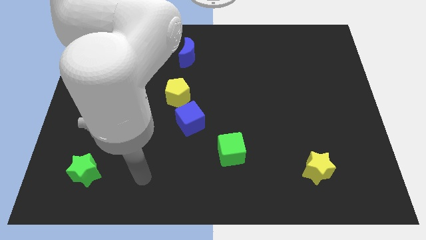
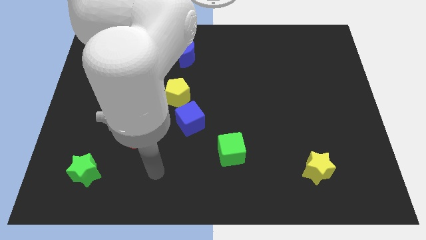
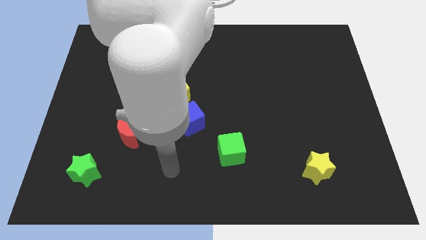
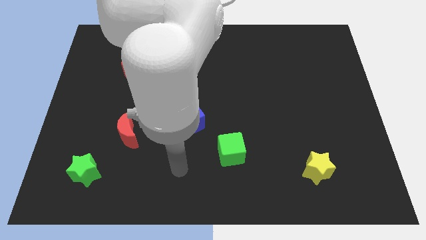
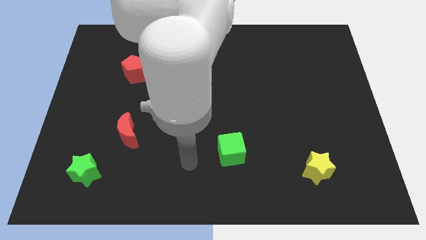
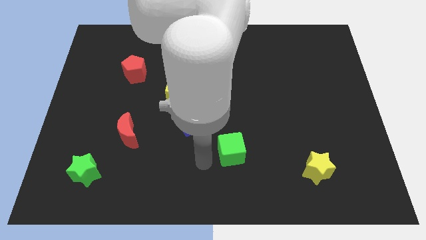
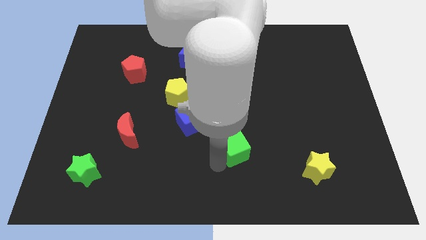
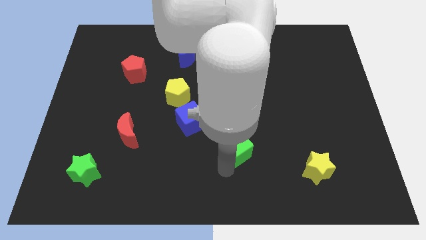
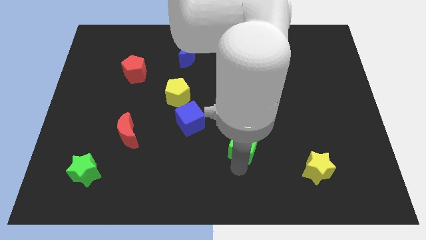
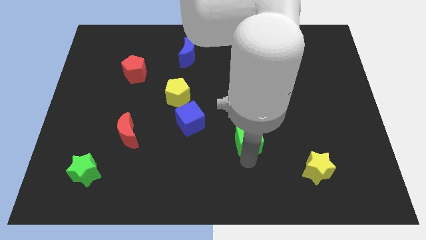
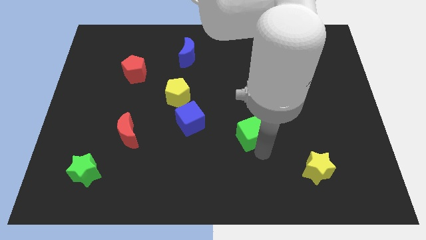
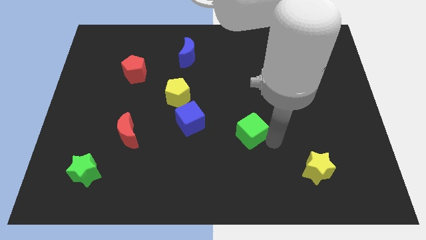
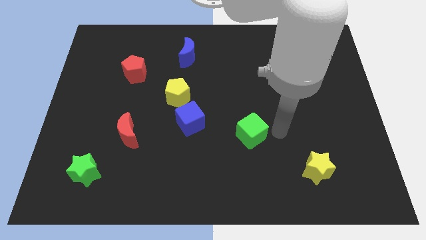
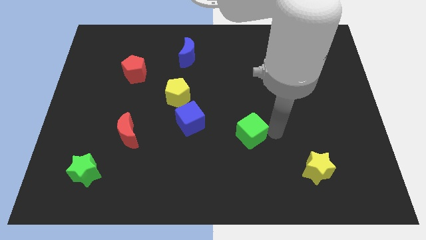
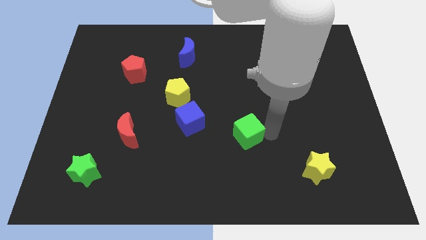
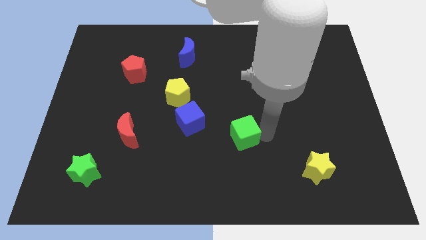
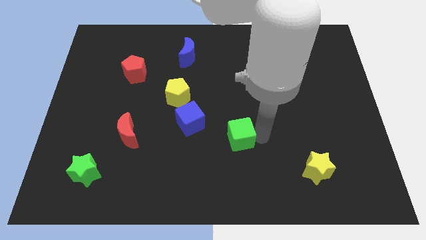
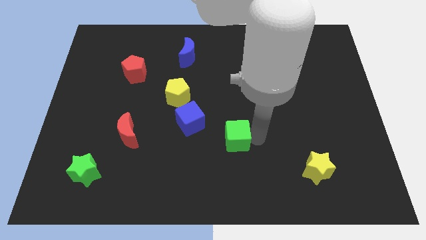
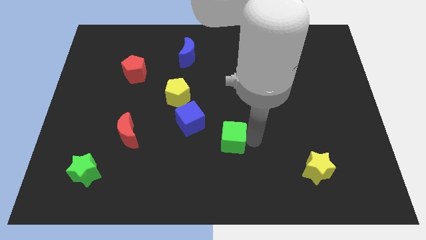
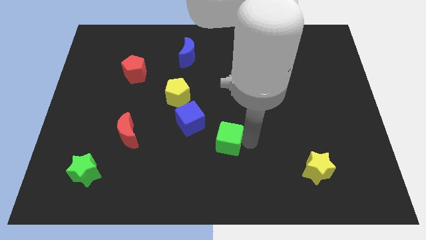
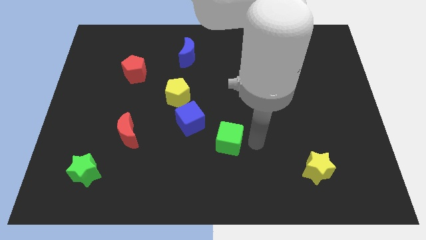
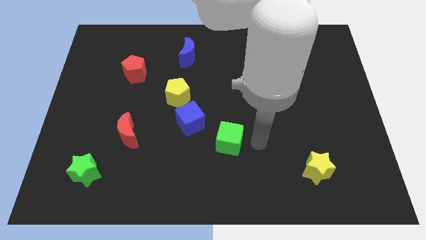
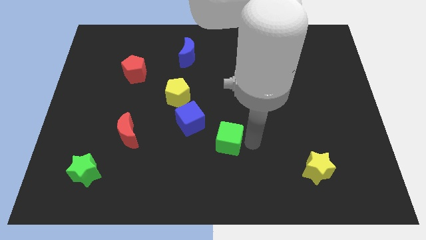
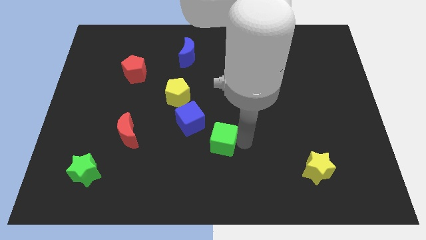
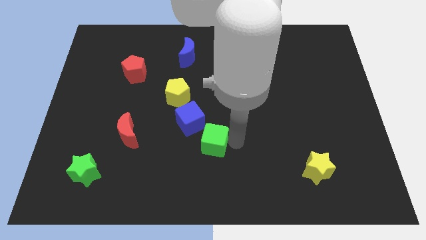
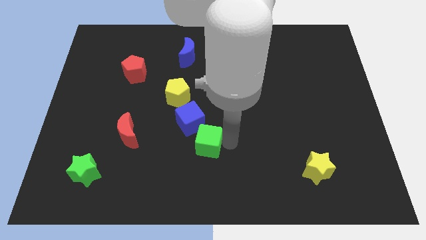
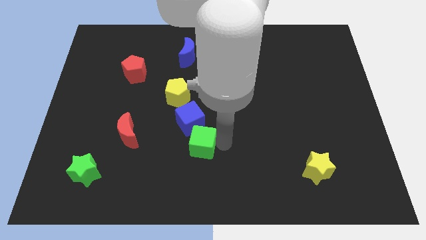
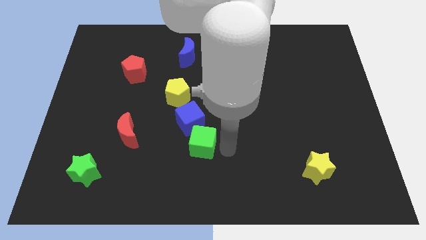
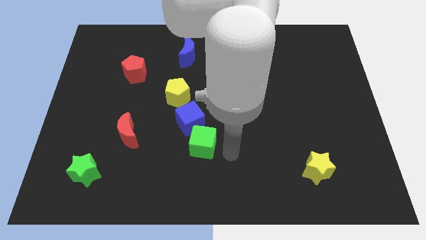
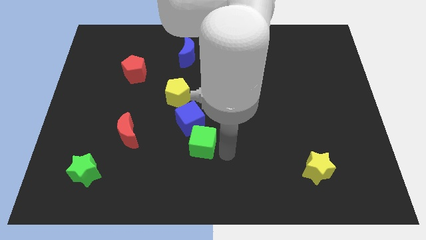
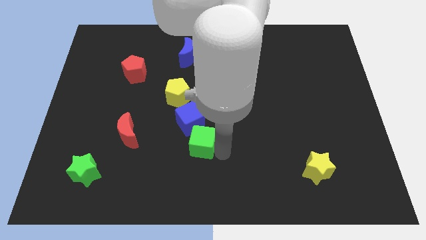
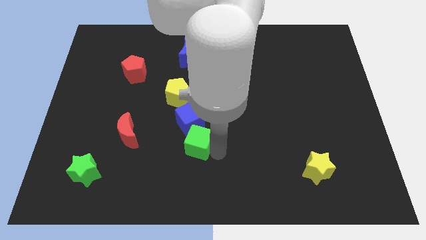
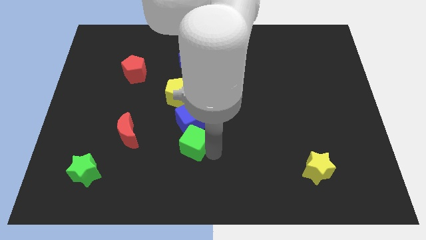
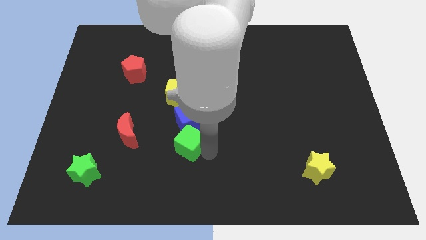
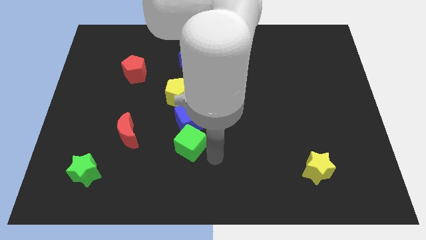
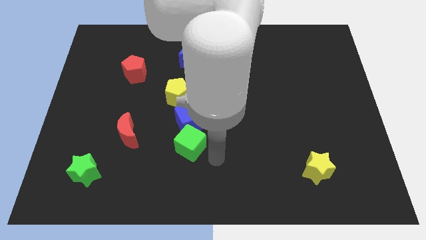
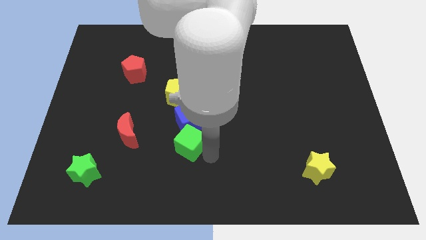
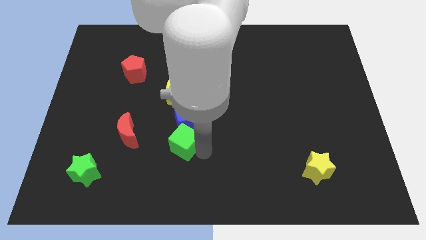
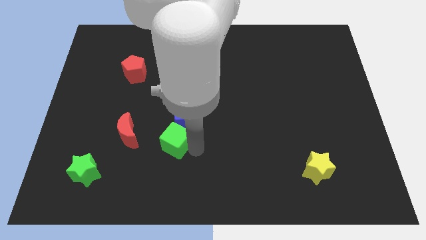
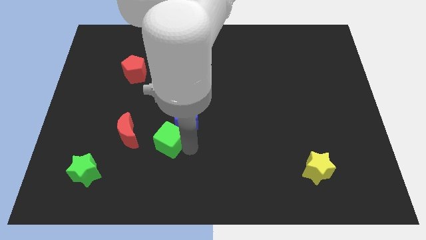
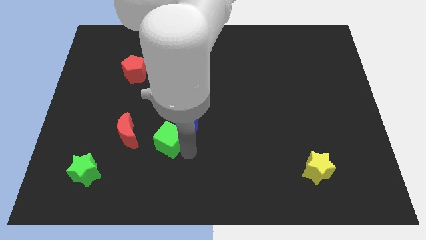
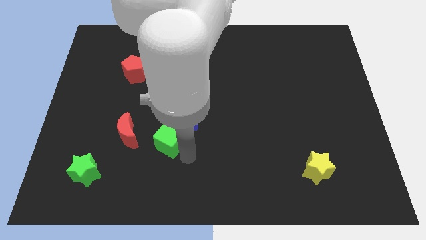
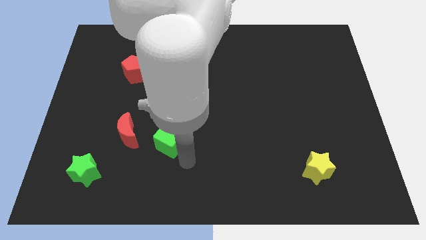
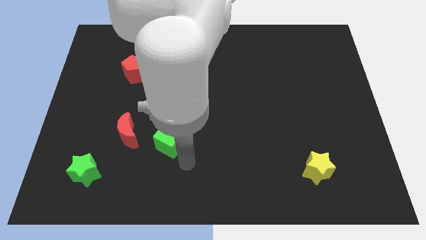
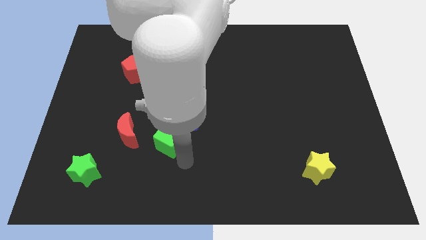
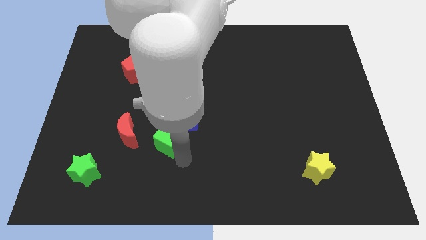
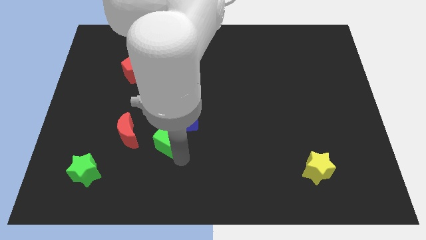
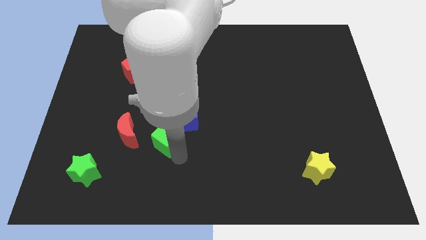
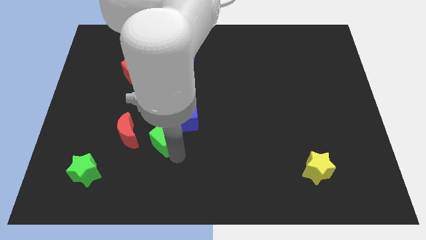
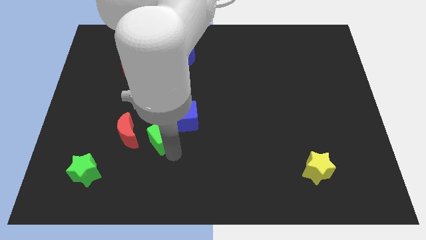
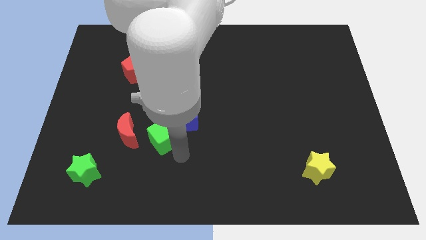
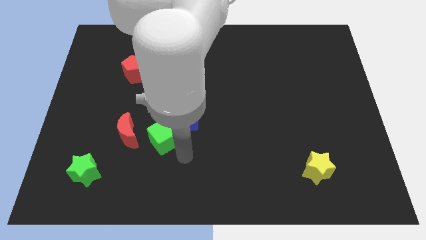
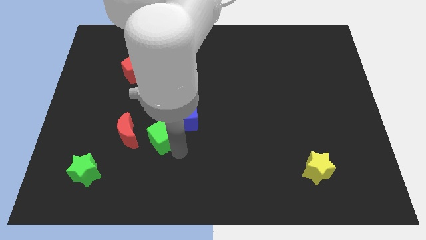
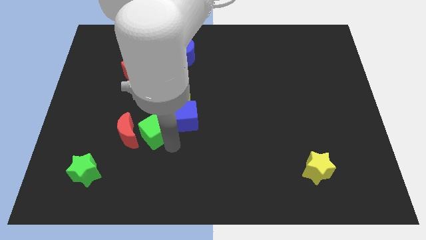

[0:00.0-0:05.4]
move the green cube to the left of the blue cube

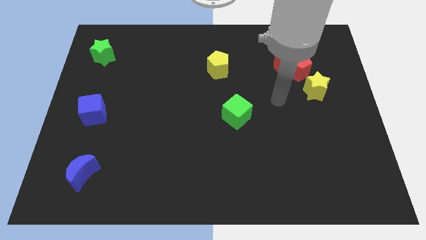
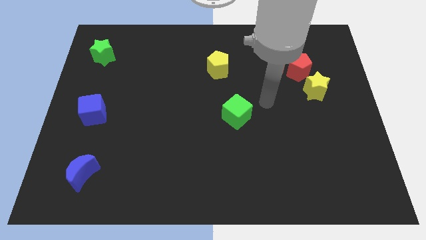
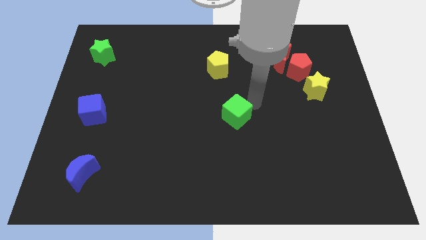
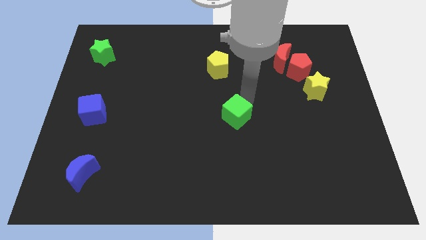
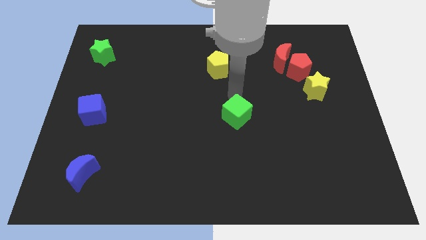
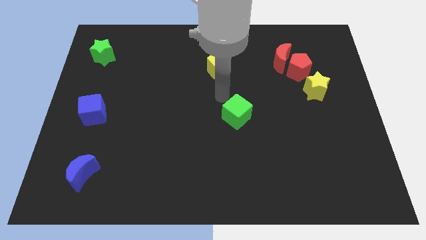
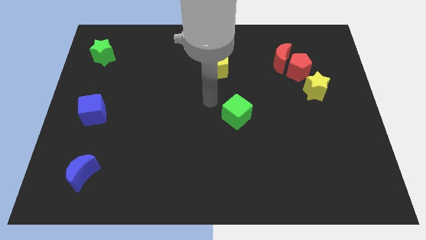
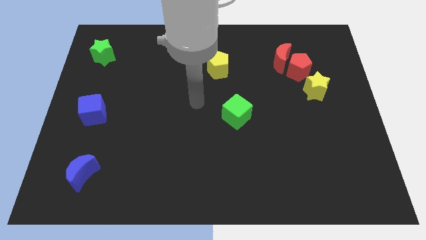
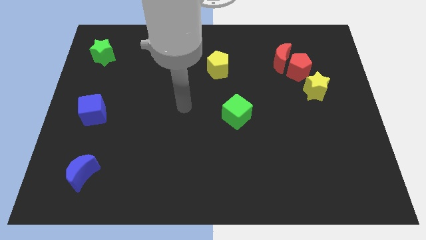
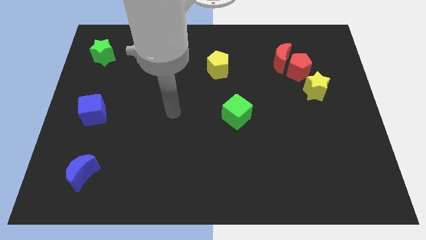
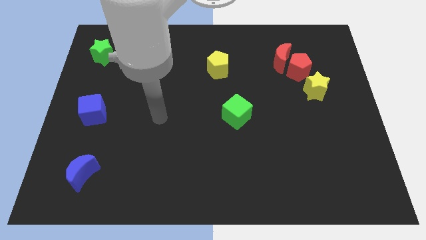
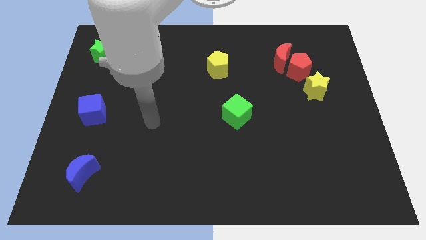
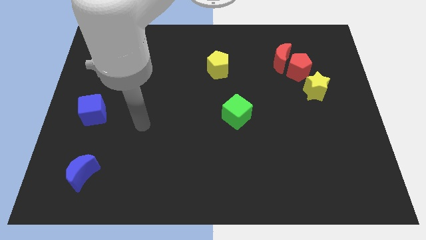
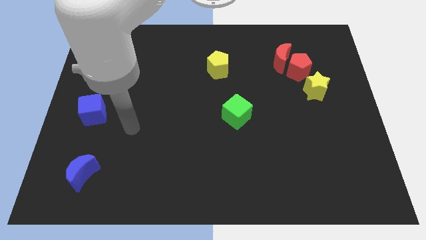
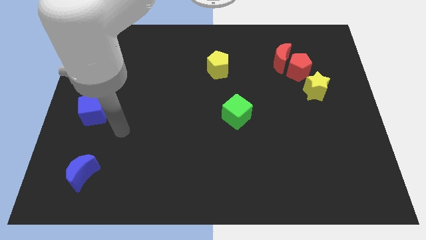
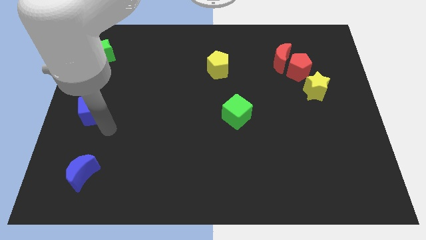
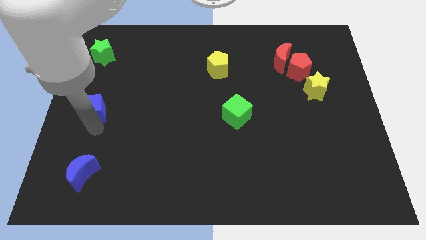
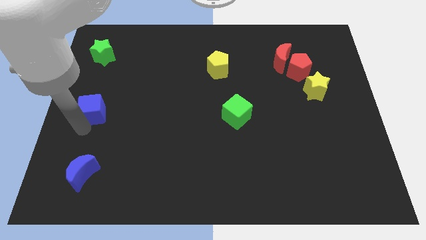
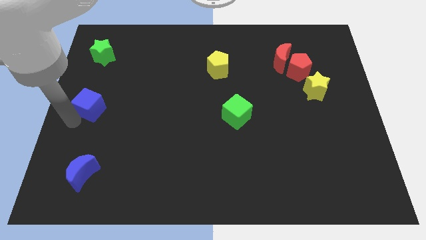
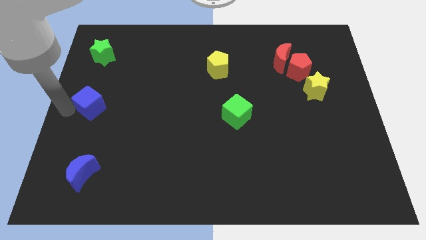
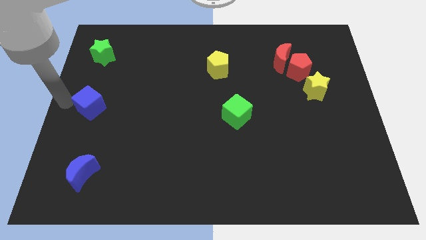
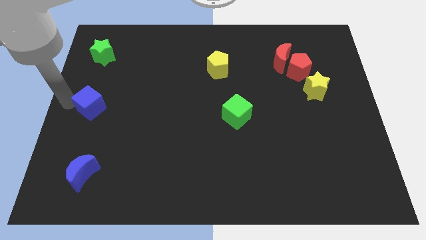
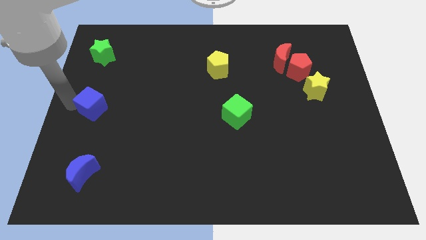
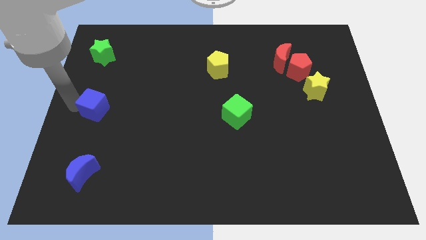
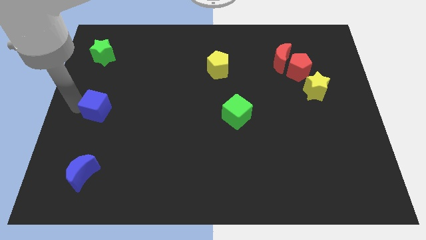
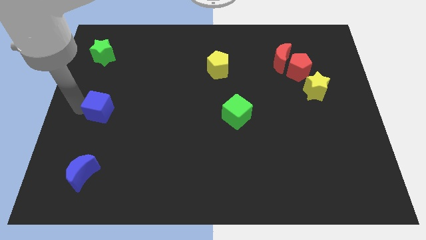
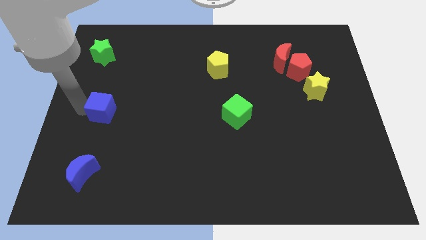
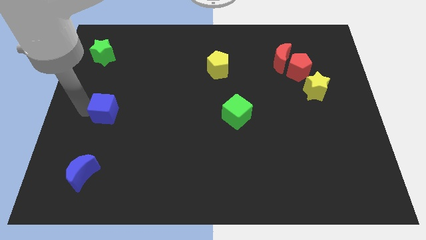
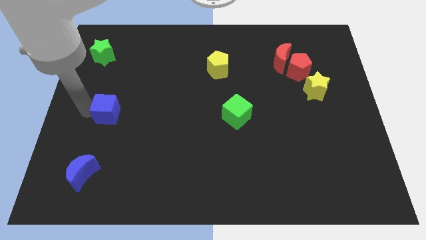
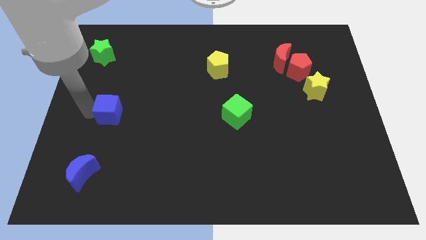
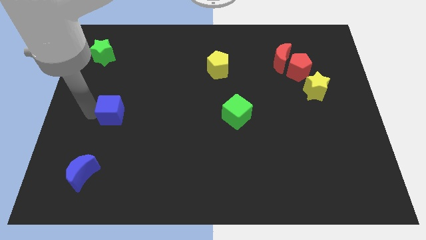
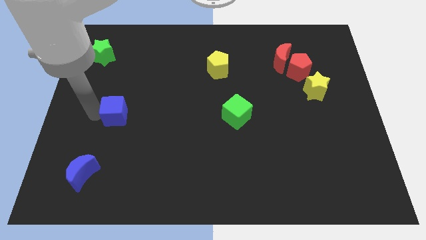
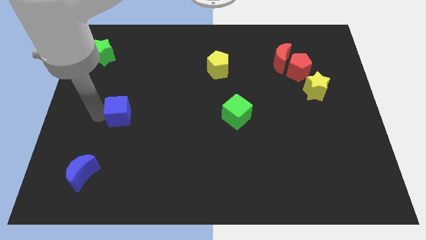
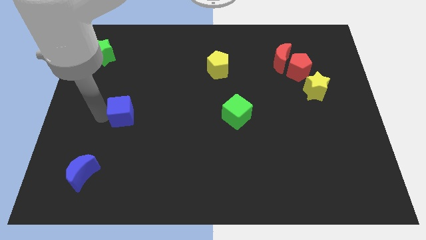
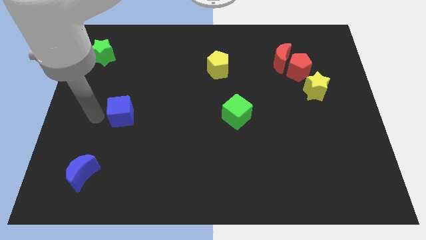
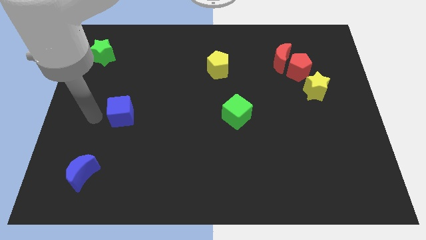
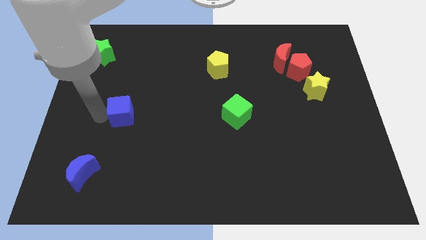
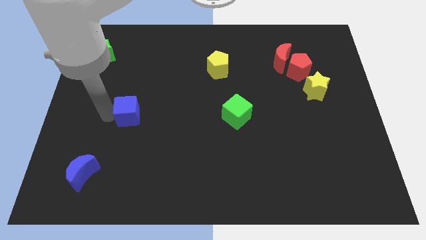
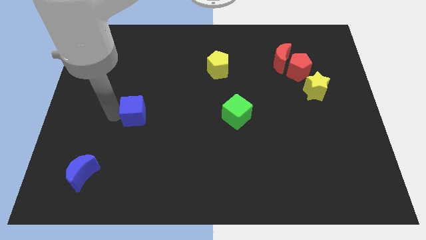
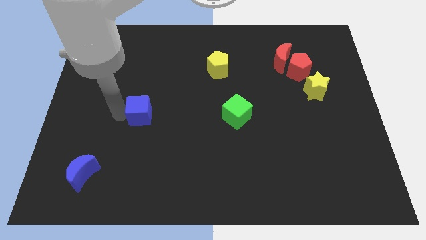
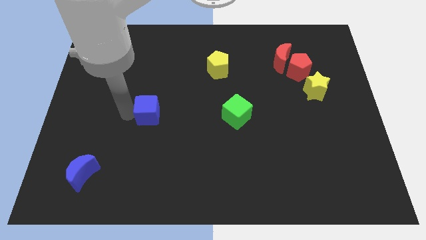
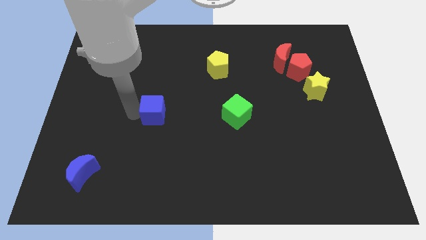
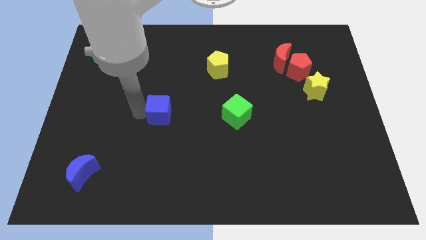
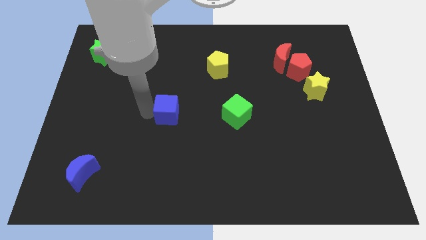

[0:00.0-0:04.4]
move the blue cube left of the green cube
